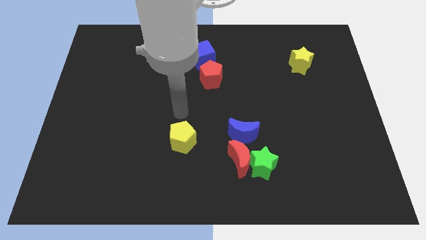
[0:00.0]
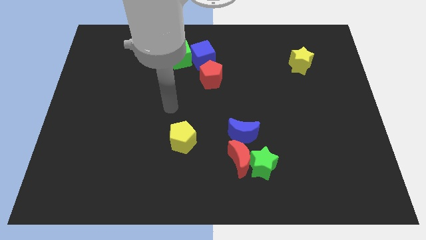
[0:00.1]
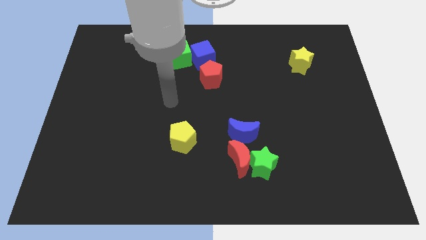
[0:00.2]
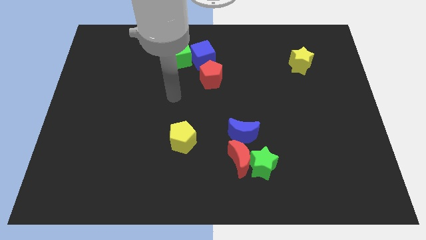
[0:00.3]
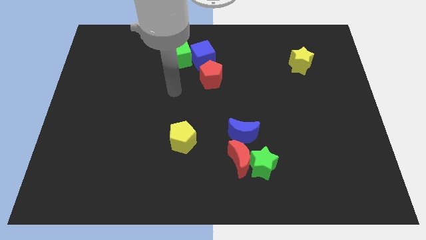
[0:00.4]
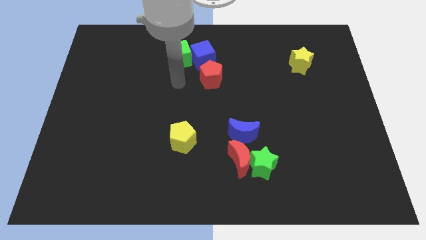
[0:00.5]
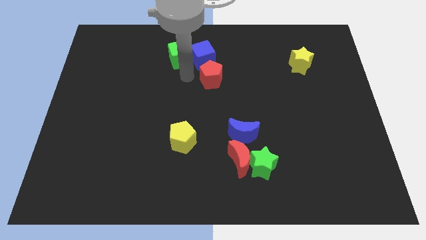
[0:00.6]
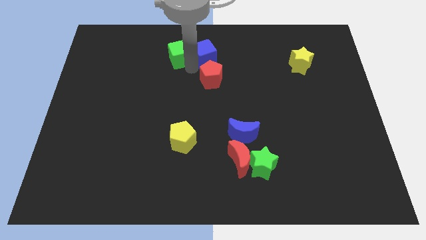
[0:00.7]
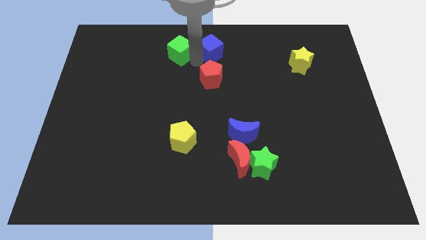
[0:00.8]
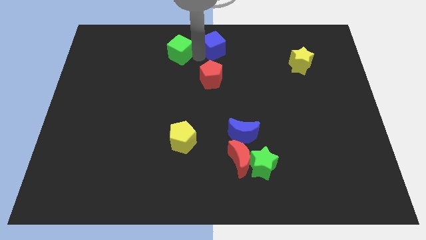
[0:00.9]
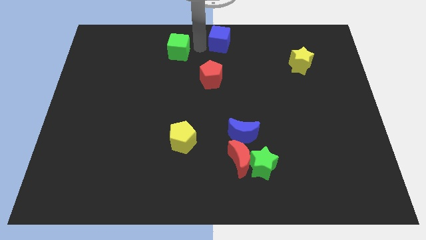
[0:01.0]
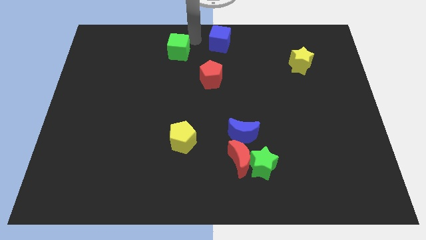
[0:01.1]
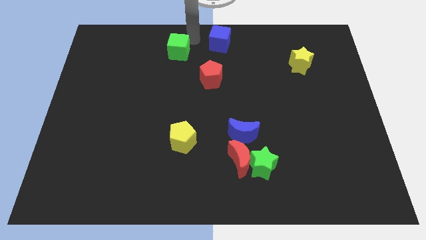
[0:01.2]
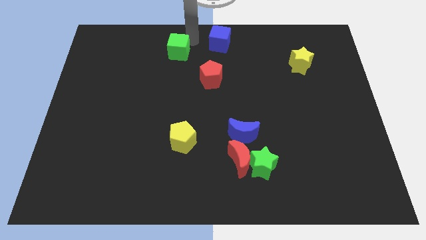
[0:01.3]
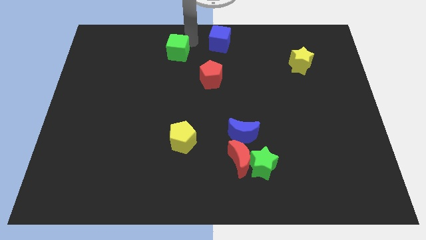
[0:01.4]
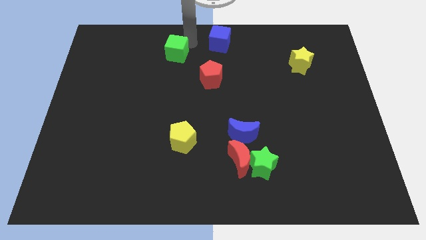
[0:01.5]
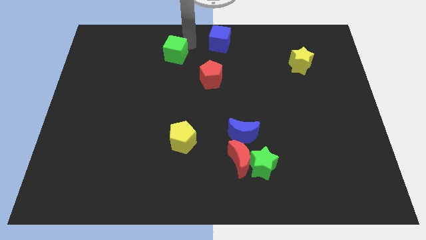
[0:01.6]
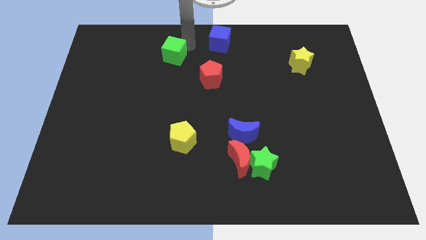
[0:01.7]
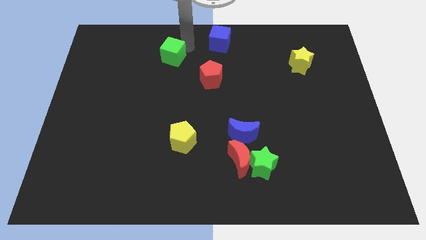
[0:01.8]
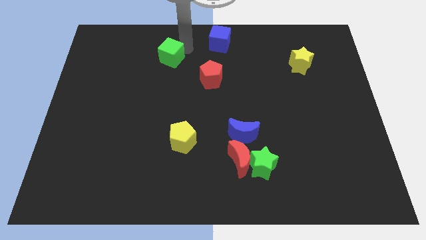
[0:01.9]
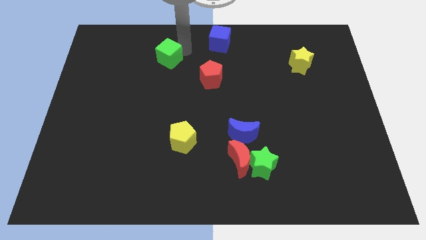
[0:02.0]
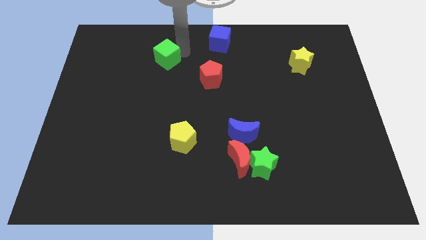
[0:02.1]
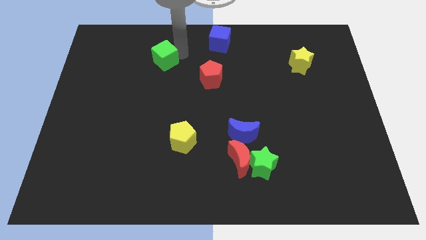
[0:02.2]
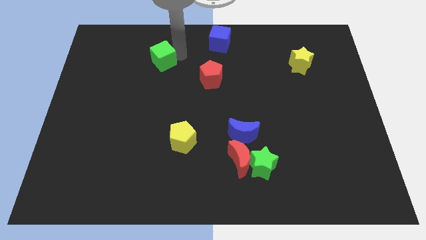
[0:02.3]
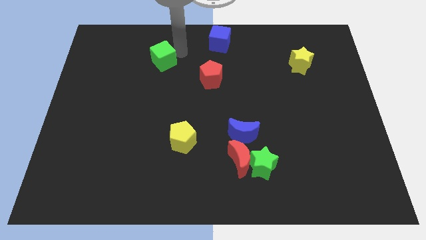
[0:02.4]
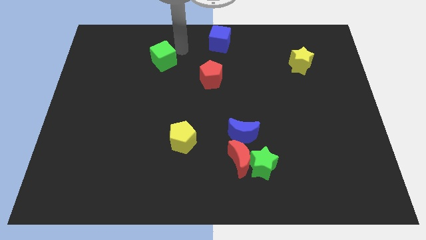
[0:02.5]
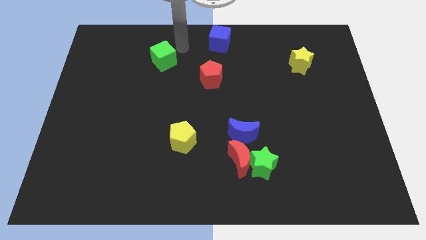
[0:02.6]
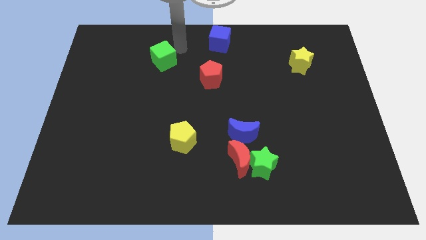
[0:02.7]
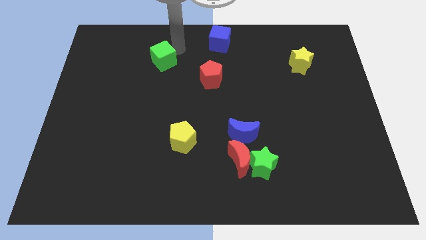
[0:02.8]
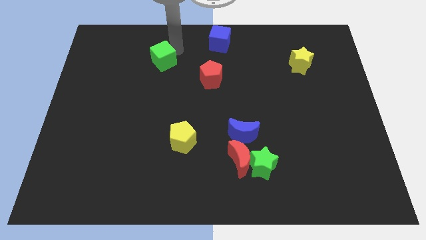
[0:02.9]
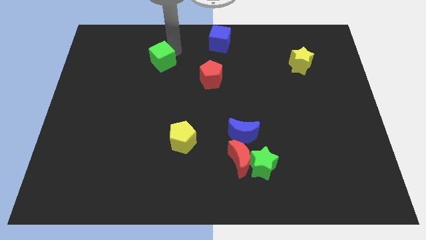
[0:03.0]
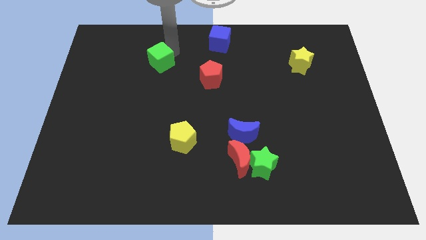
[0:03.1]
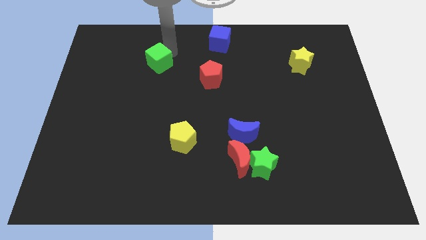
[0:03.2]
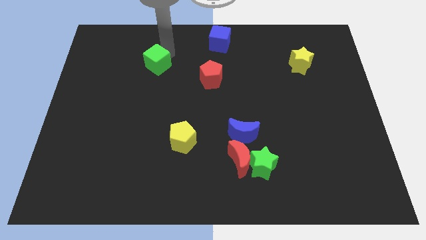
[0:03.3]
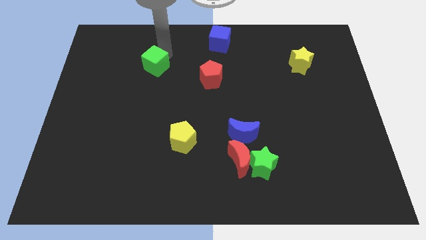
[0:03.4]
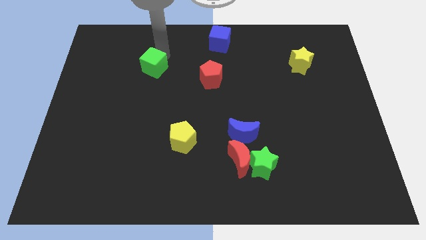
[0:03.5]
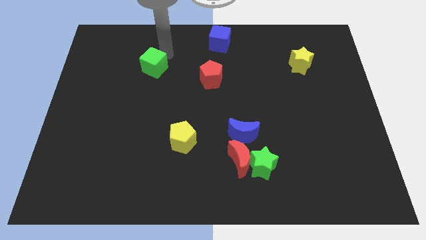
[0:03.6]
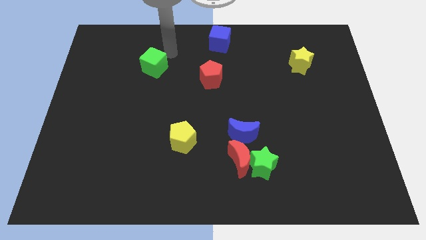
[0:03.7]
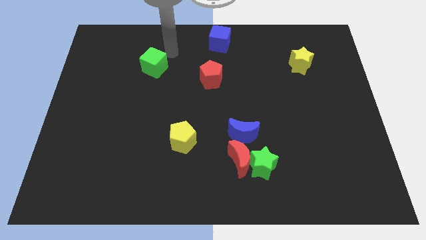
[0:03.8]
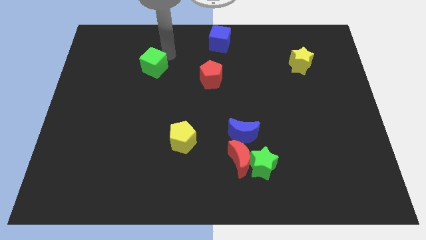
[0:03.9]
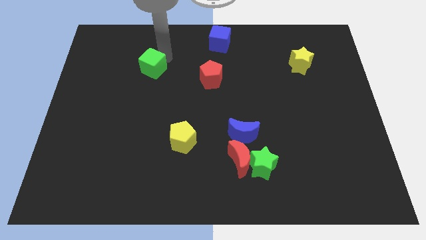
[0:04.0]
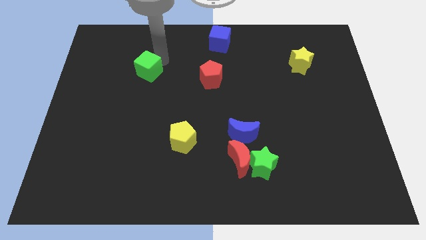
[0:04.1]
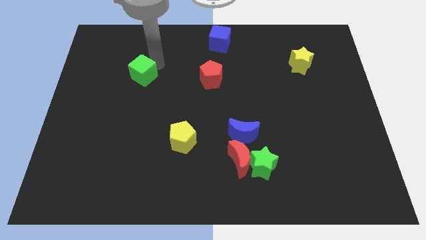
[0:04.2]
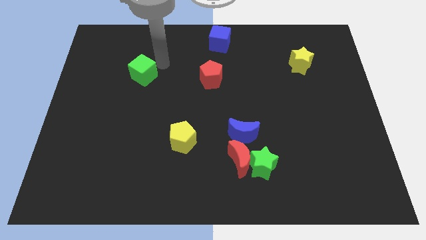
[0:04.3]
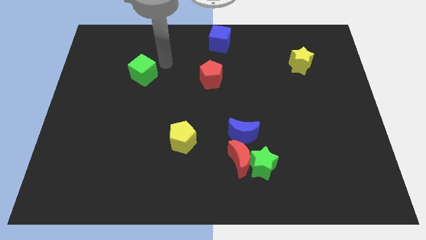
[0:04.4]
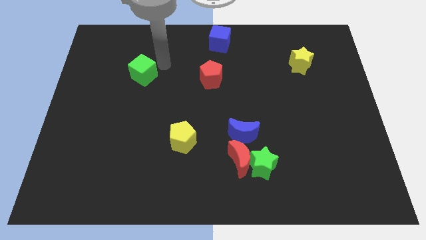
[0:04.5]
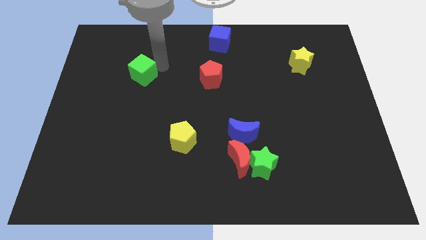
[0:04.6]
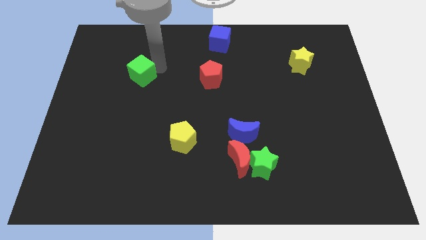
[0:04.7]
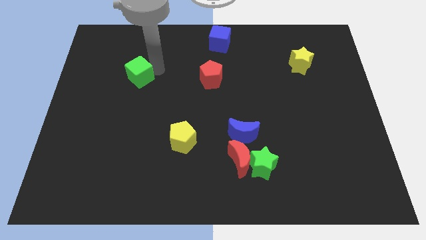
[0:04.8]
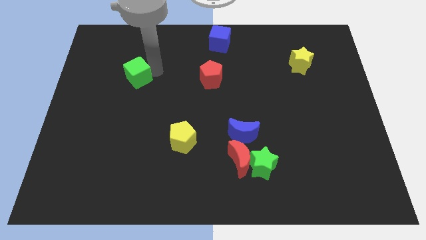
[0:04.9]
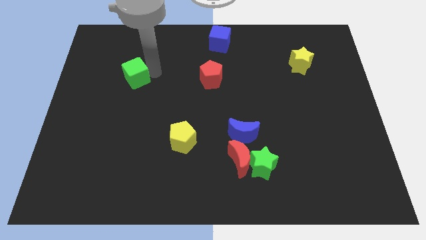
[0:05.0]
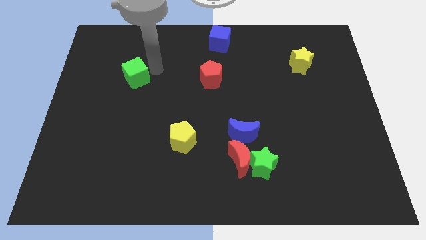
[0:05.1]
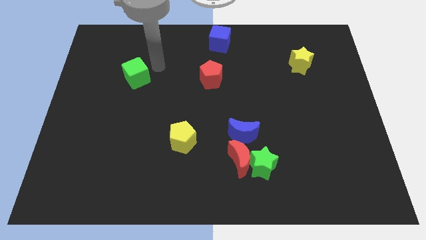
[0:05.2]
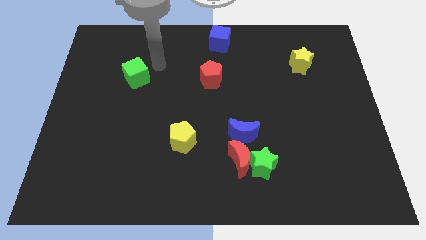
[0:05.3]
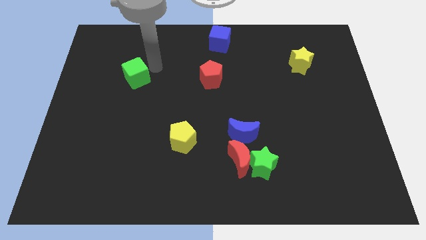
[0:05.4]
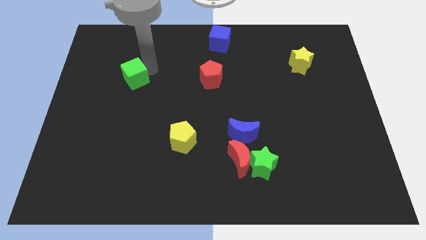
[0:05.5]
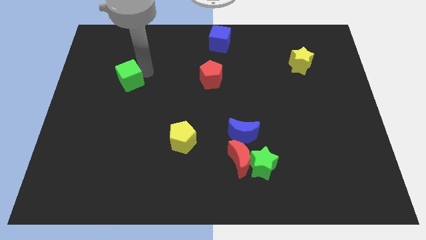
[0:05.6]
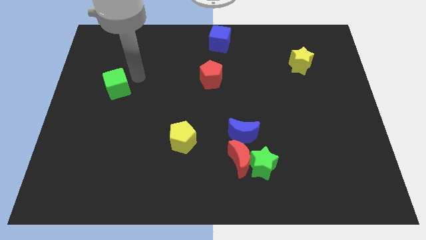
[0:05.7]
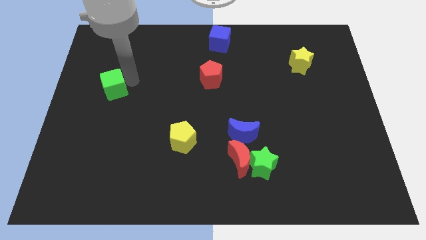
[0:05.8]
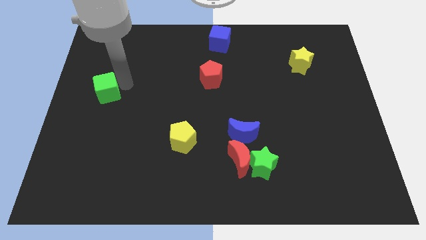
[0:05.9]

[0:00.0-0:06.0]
move the green cube to the left side of the board

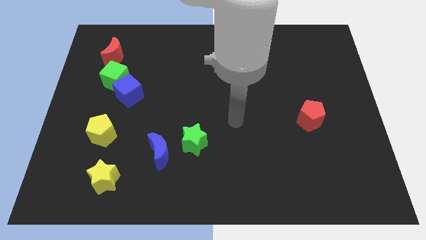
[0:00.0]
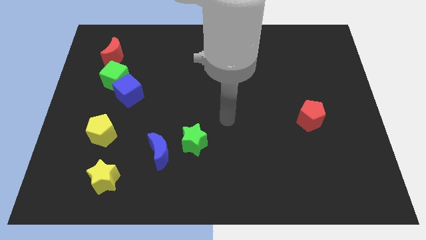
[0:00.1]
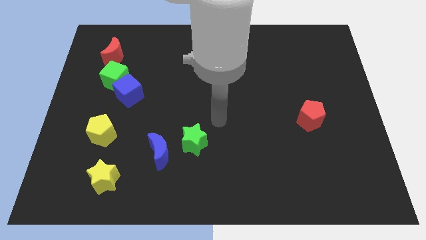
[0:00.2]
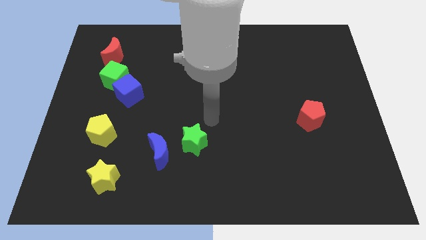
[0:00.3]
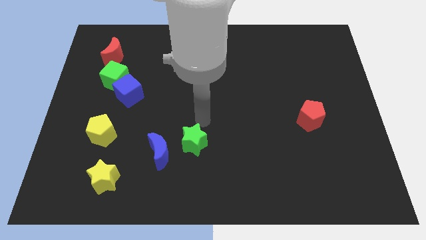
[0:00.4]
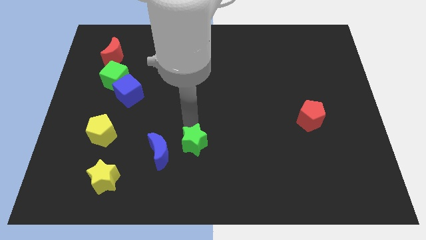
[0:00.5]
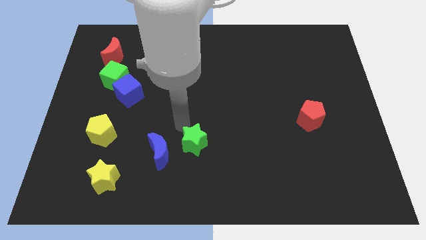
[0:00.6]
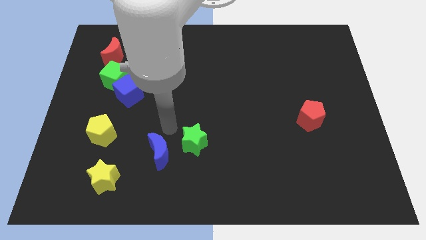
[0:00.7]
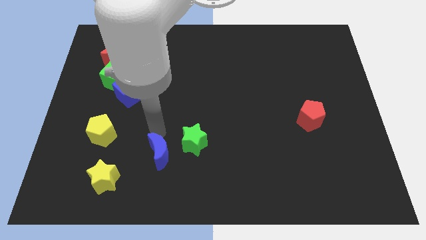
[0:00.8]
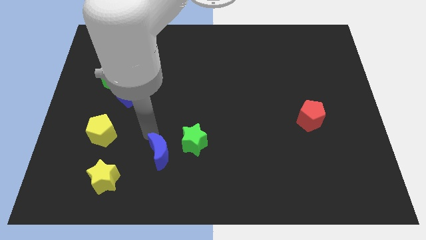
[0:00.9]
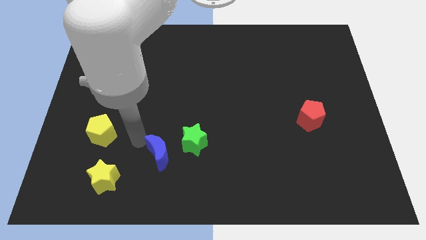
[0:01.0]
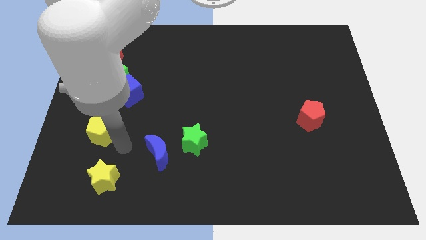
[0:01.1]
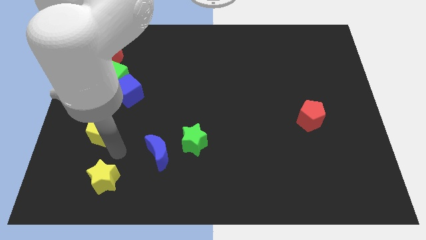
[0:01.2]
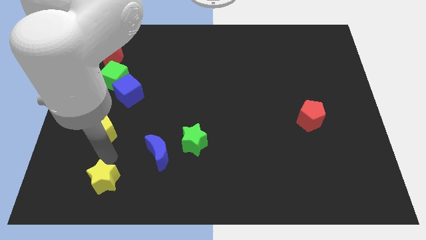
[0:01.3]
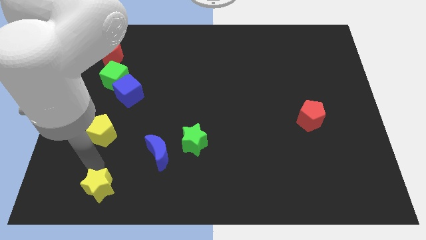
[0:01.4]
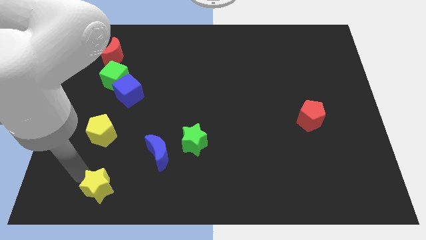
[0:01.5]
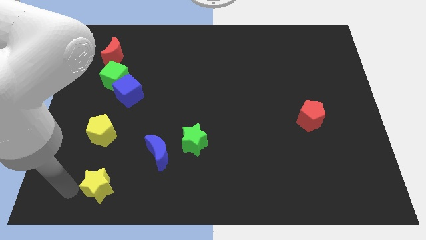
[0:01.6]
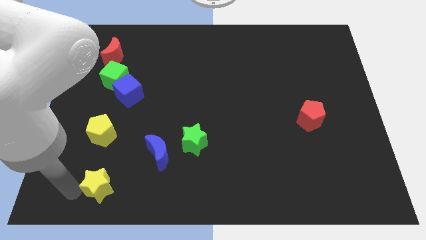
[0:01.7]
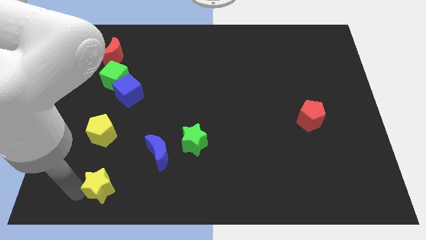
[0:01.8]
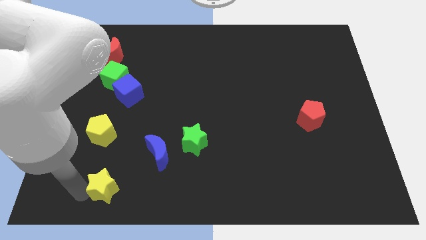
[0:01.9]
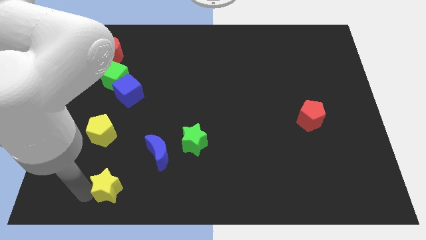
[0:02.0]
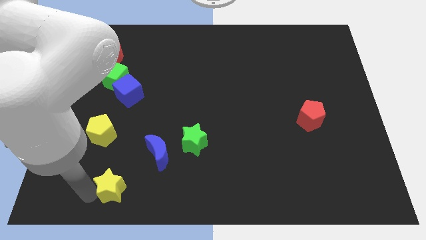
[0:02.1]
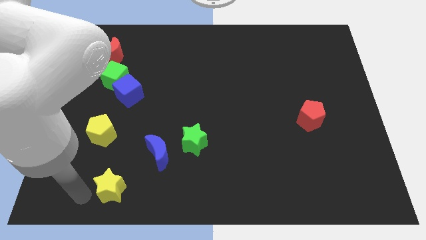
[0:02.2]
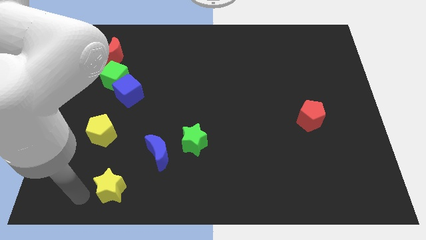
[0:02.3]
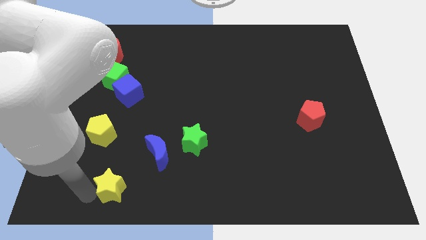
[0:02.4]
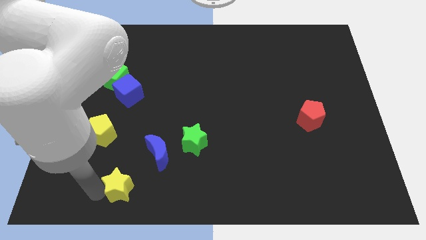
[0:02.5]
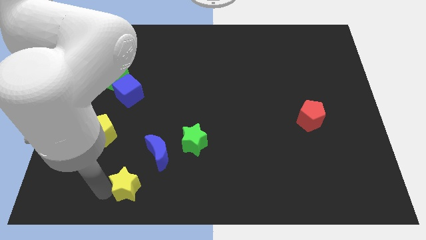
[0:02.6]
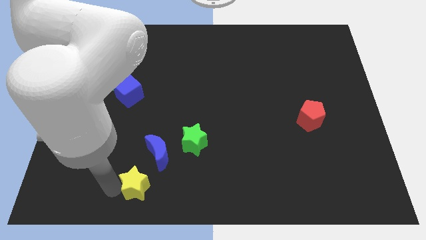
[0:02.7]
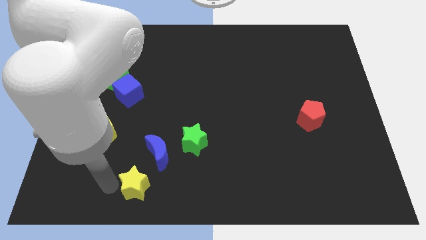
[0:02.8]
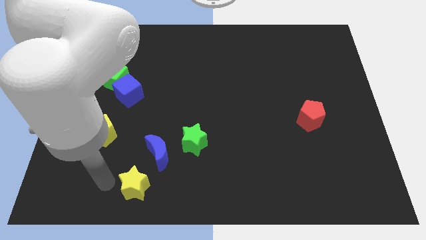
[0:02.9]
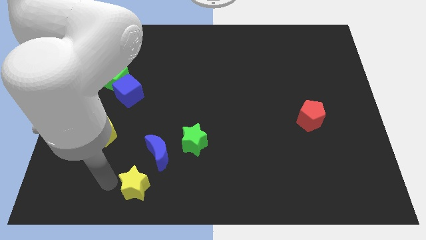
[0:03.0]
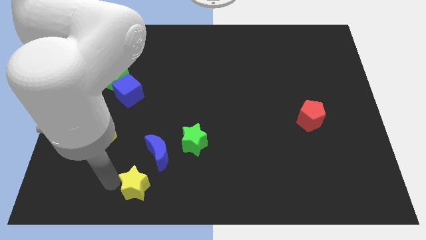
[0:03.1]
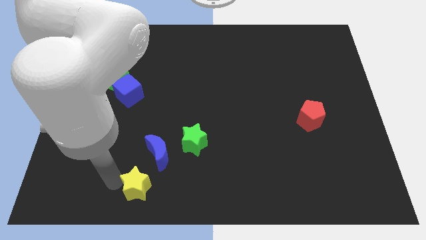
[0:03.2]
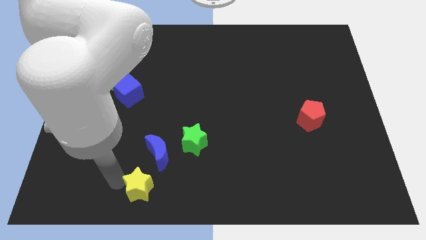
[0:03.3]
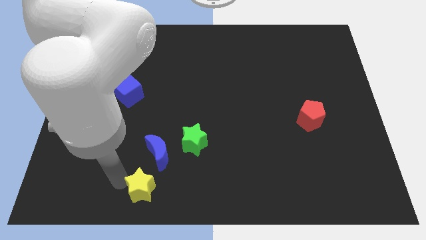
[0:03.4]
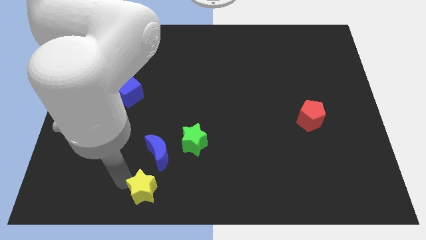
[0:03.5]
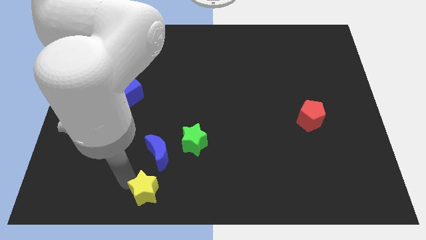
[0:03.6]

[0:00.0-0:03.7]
put the yellow star to the bottom
